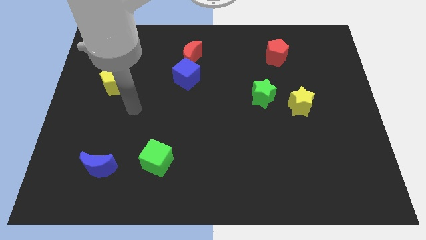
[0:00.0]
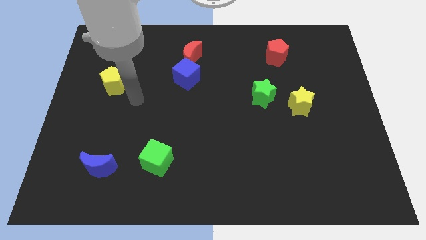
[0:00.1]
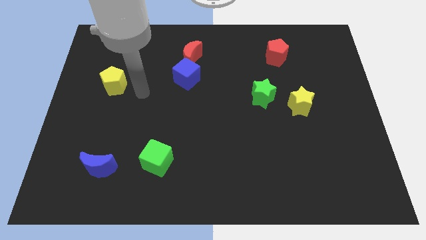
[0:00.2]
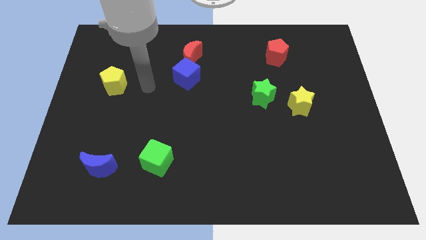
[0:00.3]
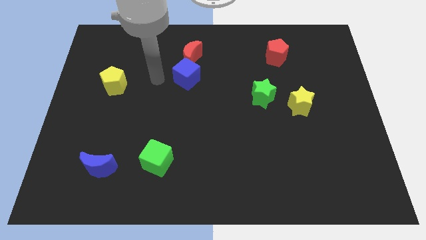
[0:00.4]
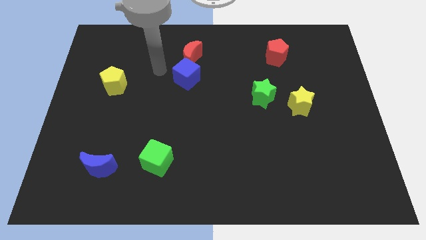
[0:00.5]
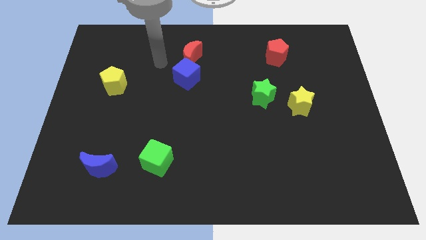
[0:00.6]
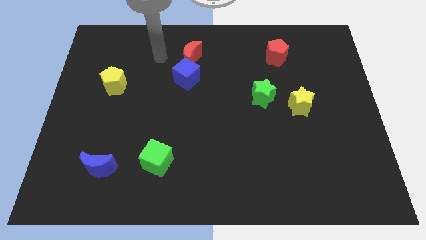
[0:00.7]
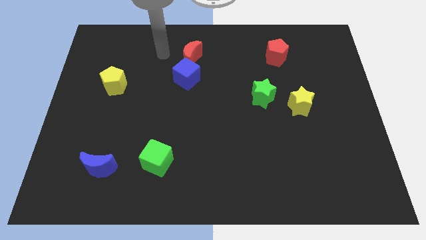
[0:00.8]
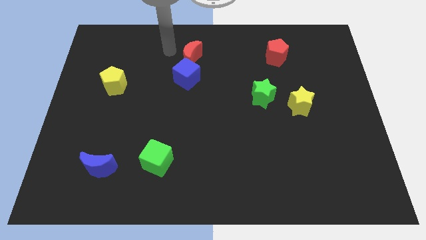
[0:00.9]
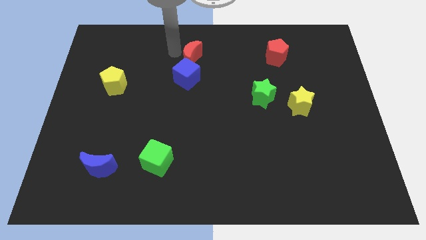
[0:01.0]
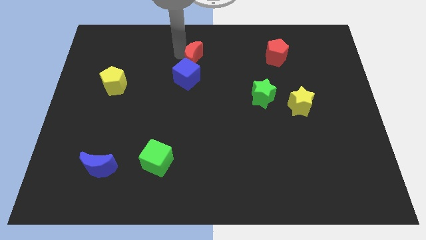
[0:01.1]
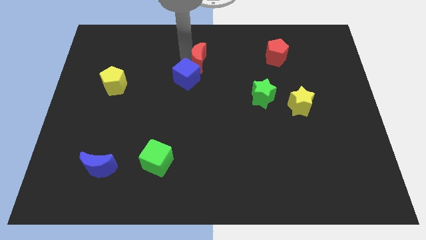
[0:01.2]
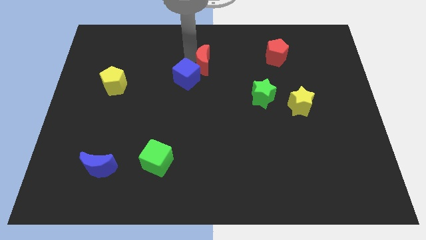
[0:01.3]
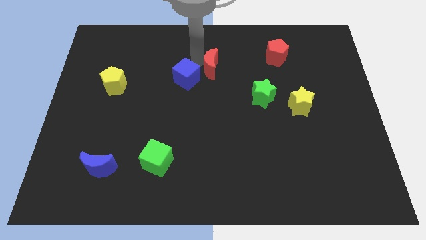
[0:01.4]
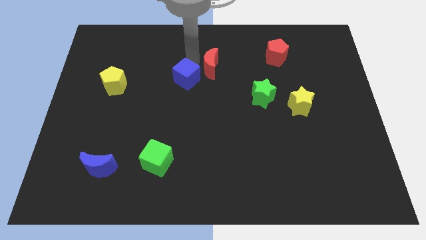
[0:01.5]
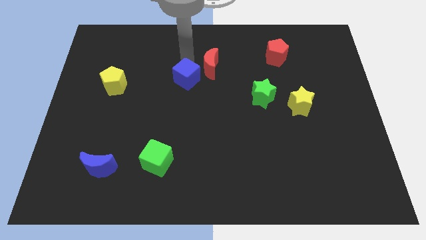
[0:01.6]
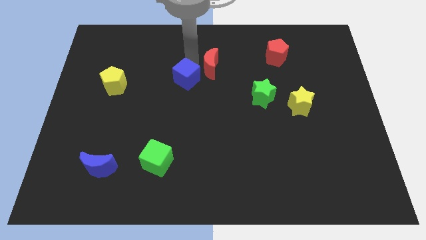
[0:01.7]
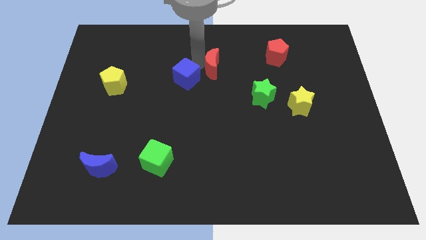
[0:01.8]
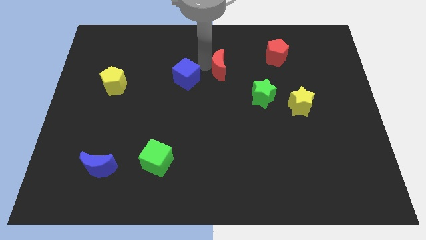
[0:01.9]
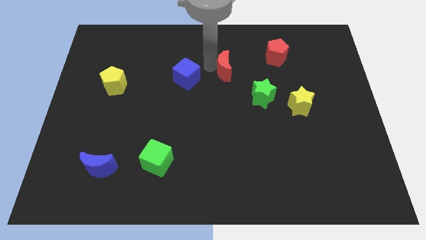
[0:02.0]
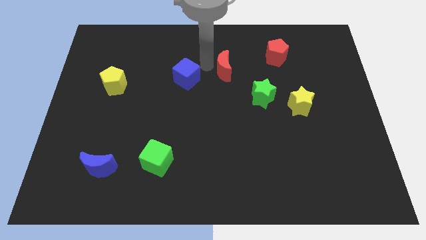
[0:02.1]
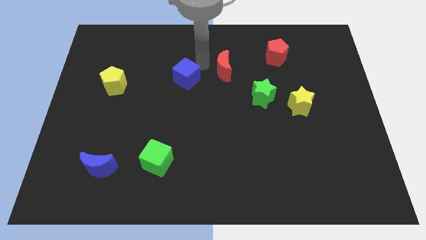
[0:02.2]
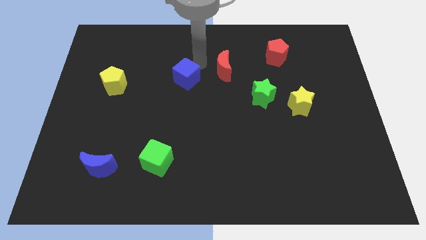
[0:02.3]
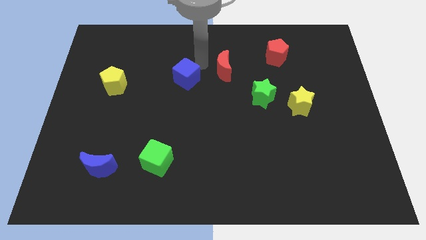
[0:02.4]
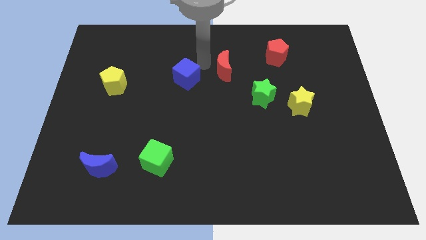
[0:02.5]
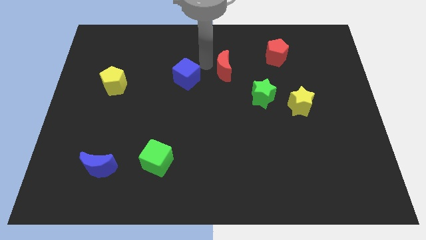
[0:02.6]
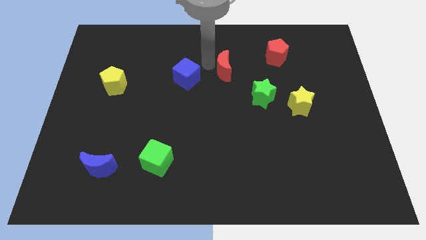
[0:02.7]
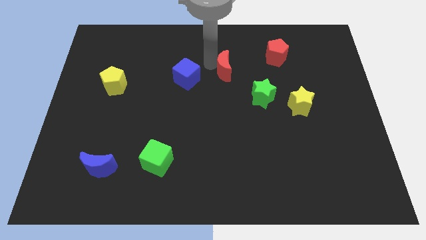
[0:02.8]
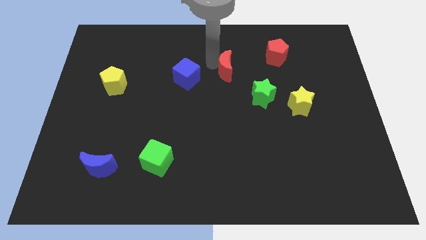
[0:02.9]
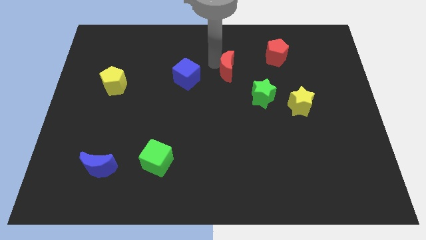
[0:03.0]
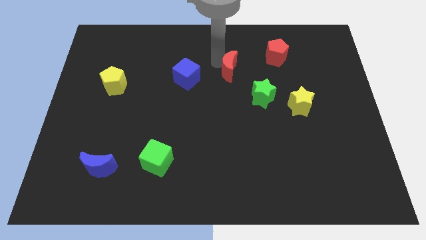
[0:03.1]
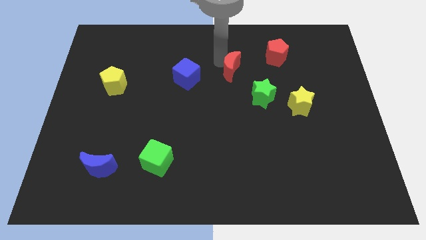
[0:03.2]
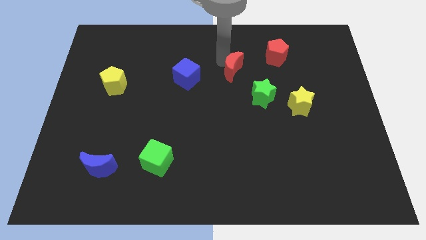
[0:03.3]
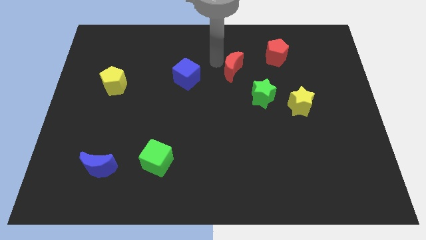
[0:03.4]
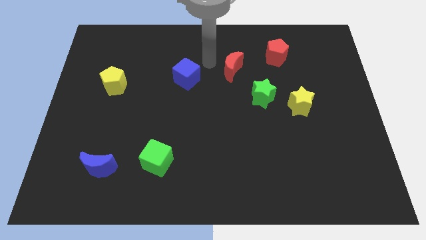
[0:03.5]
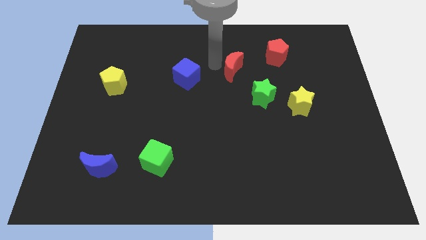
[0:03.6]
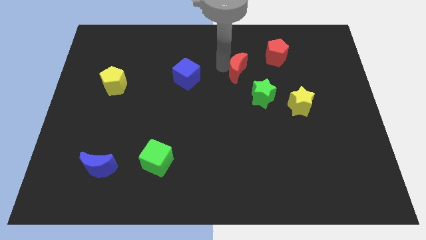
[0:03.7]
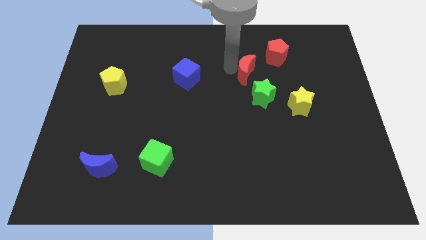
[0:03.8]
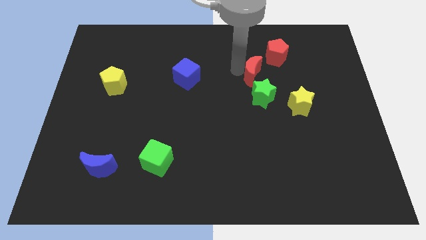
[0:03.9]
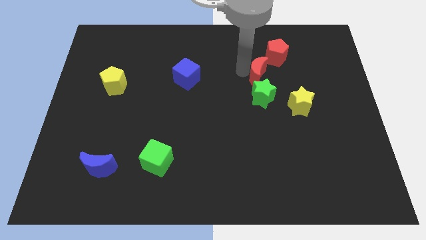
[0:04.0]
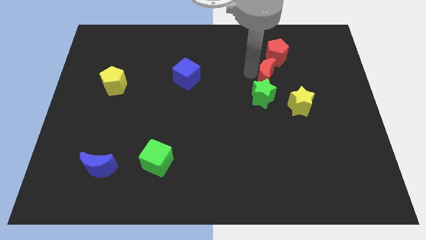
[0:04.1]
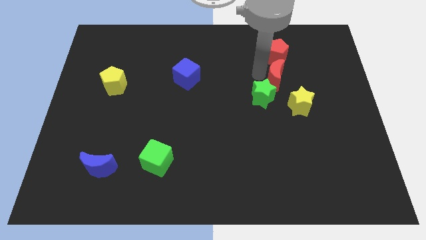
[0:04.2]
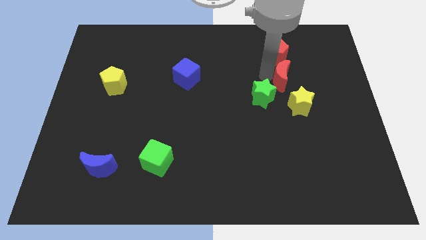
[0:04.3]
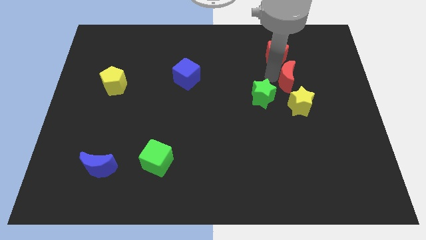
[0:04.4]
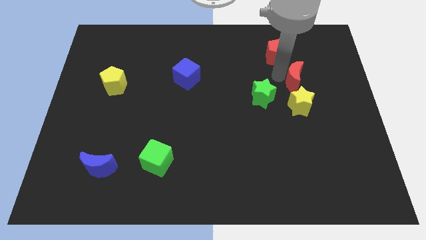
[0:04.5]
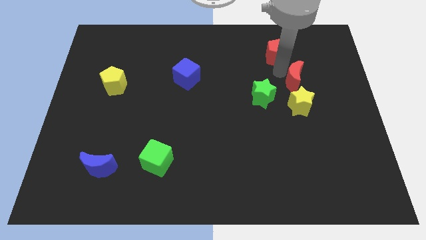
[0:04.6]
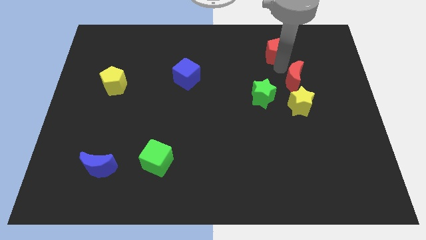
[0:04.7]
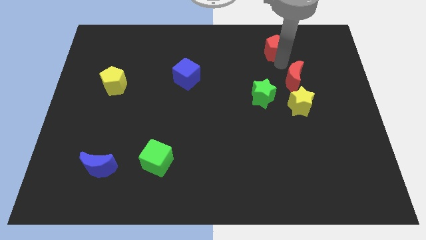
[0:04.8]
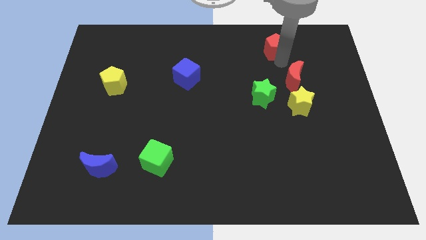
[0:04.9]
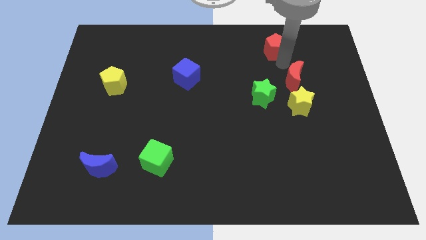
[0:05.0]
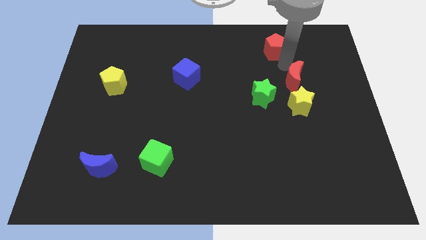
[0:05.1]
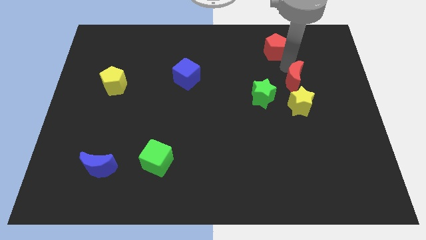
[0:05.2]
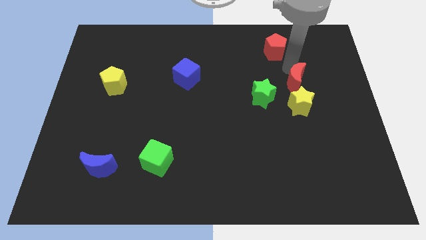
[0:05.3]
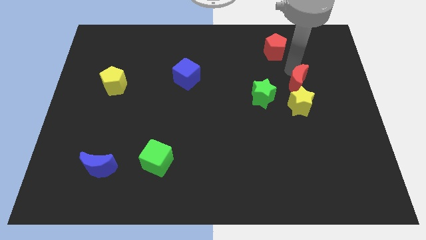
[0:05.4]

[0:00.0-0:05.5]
push the red moon to the right side of the green star
